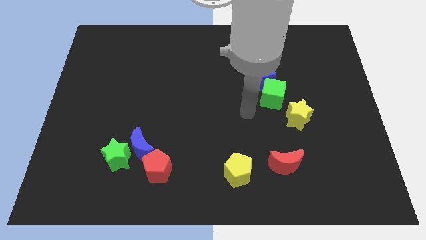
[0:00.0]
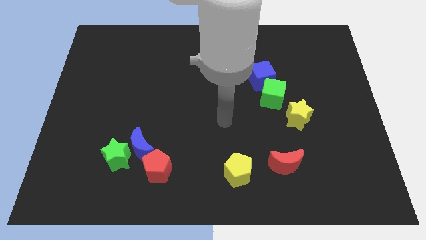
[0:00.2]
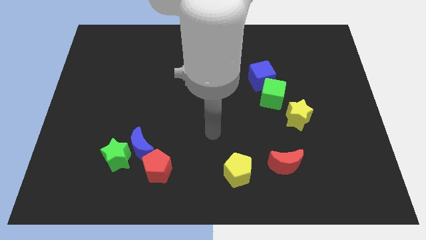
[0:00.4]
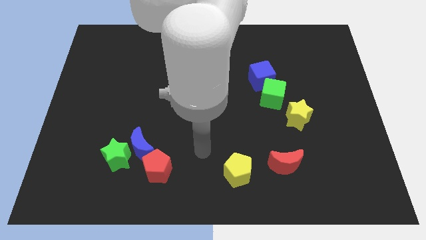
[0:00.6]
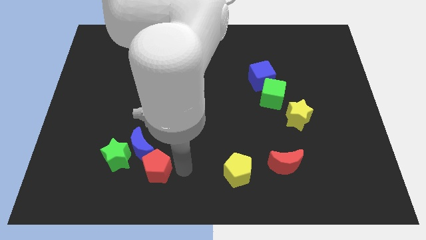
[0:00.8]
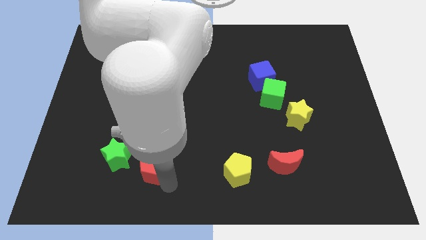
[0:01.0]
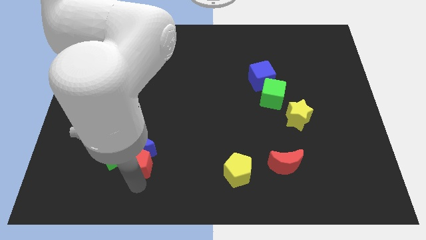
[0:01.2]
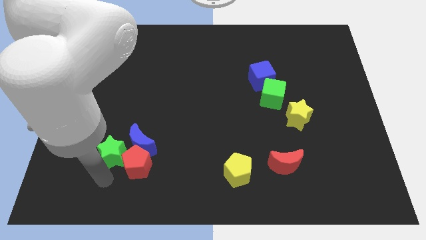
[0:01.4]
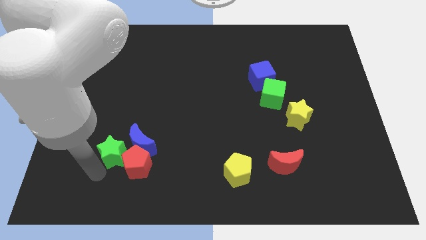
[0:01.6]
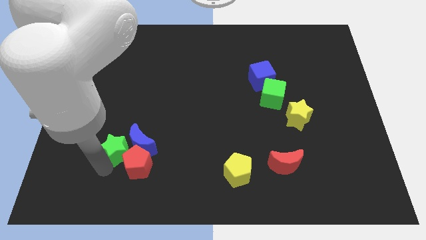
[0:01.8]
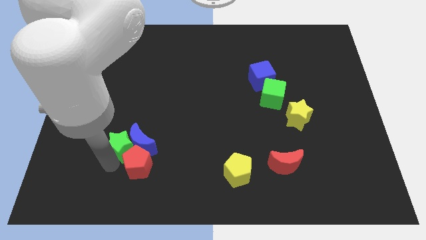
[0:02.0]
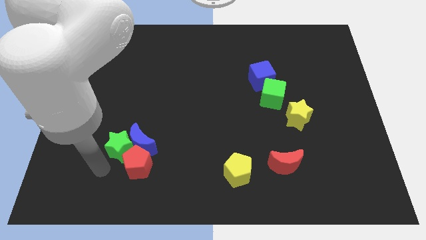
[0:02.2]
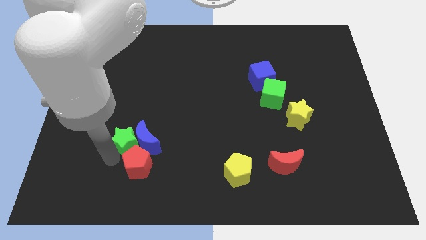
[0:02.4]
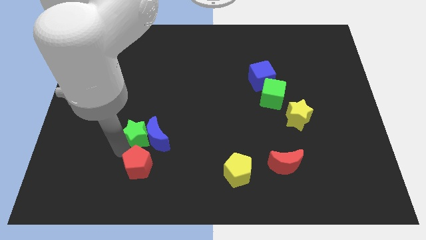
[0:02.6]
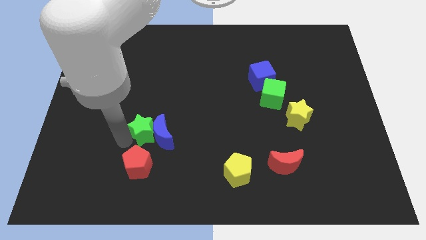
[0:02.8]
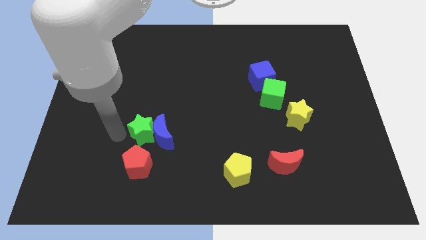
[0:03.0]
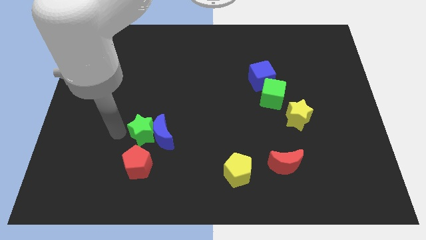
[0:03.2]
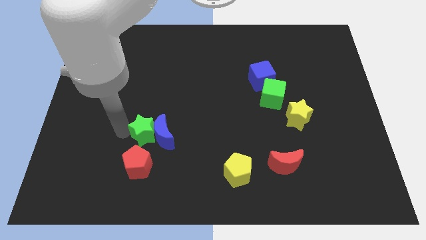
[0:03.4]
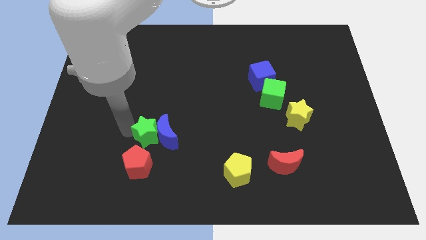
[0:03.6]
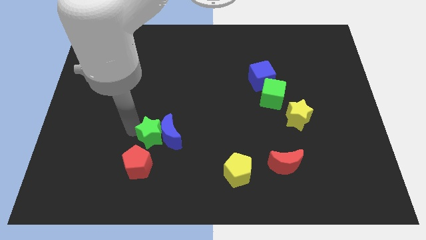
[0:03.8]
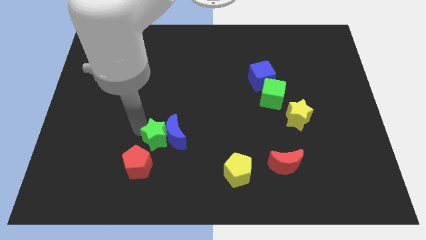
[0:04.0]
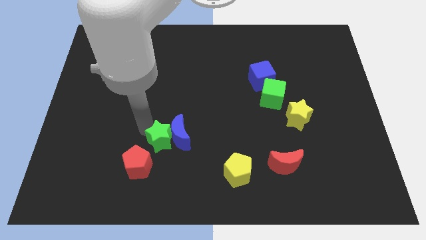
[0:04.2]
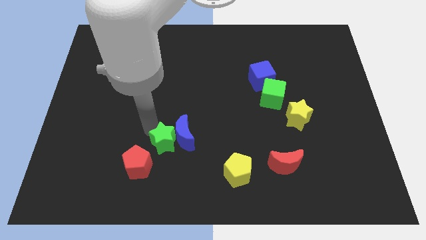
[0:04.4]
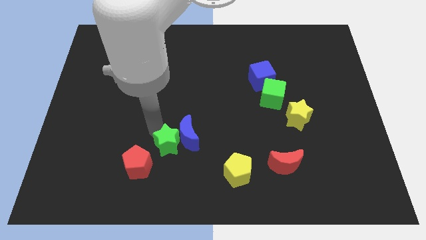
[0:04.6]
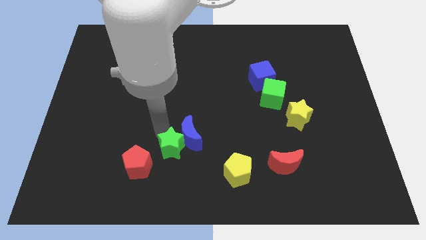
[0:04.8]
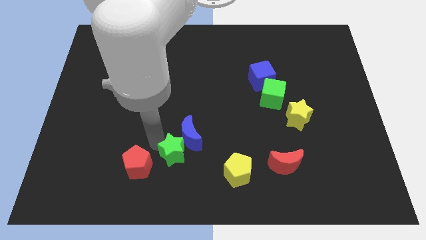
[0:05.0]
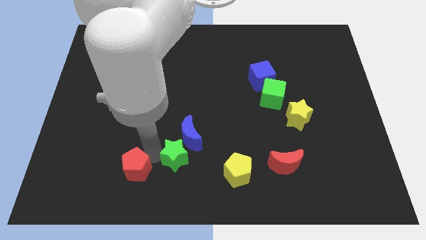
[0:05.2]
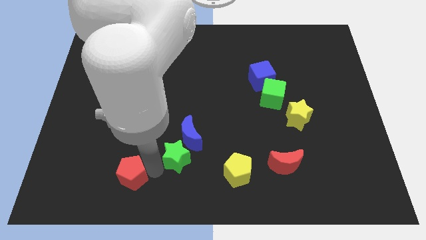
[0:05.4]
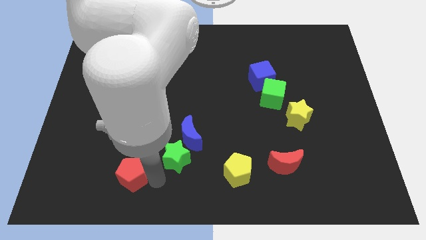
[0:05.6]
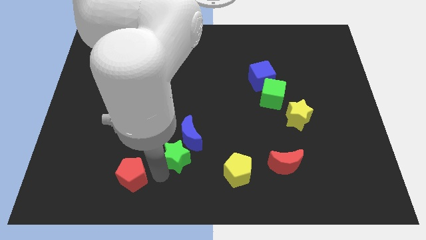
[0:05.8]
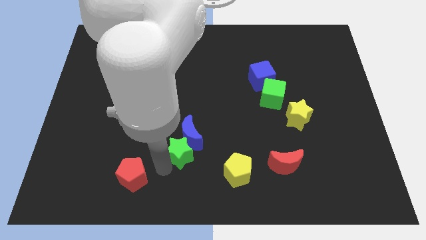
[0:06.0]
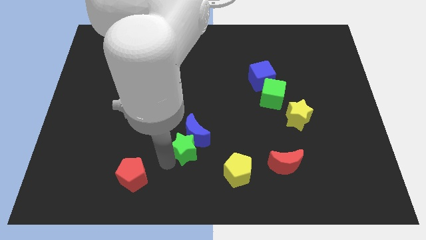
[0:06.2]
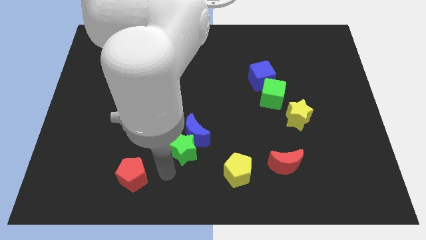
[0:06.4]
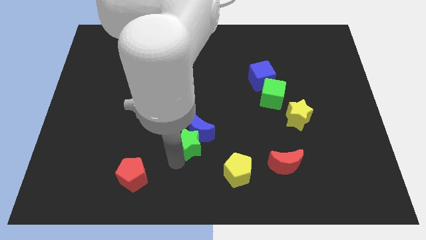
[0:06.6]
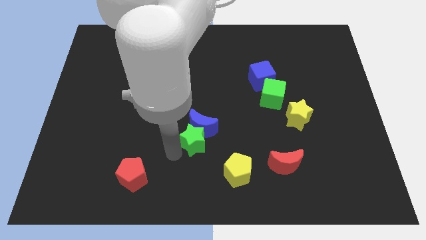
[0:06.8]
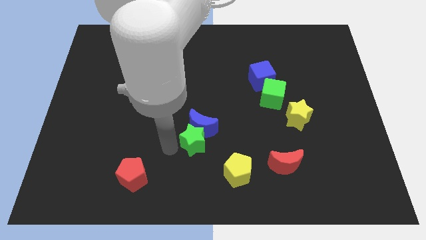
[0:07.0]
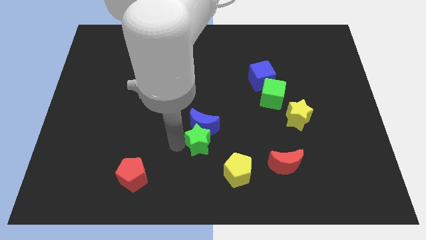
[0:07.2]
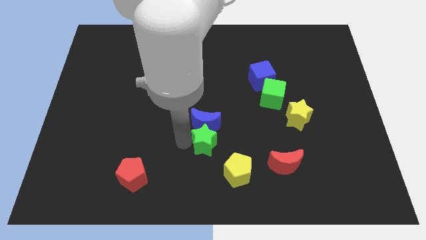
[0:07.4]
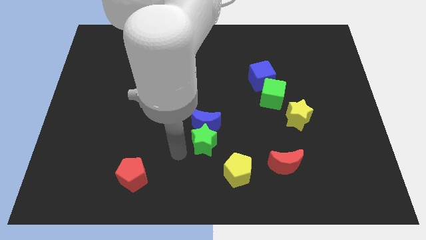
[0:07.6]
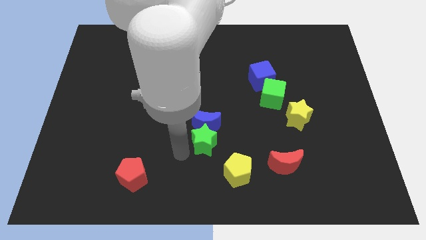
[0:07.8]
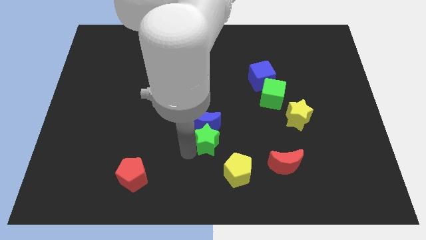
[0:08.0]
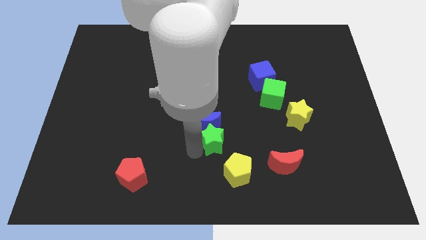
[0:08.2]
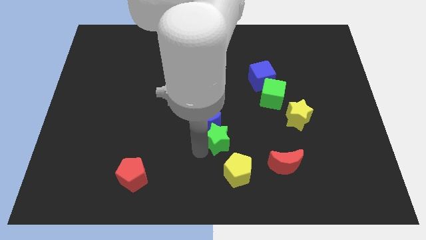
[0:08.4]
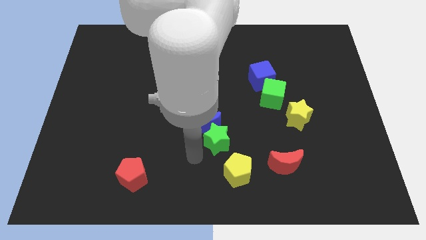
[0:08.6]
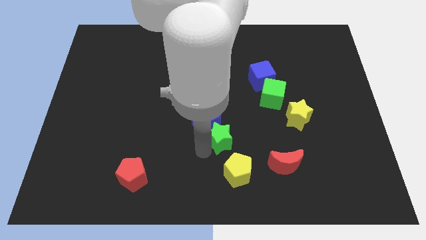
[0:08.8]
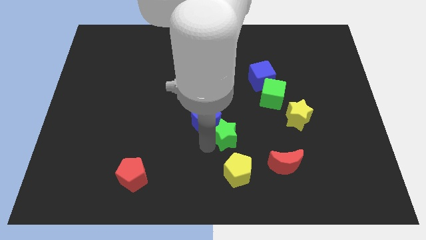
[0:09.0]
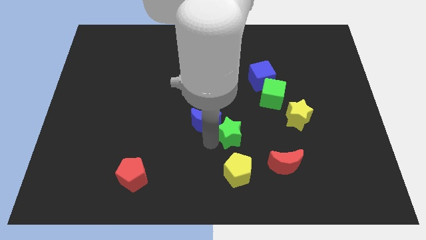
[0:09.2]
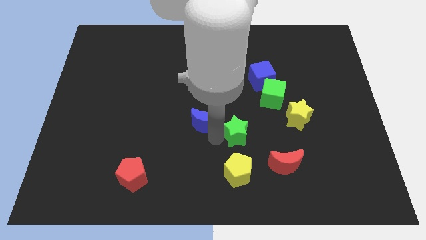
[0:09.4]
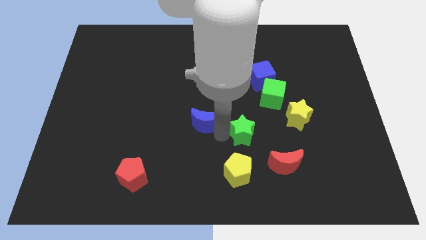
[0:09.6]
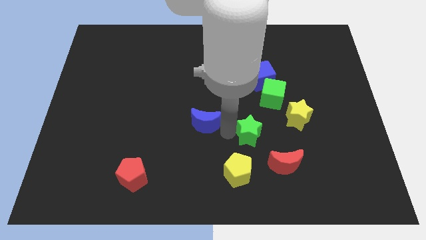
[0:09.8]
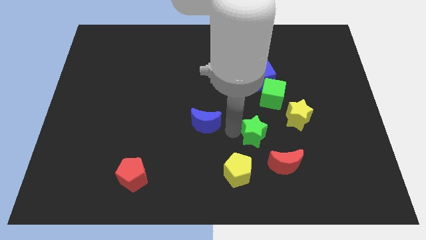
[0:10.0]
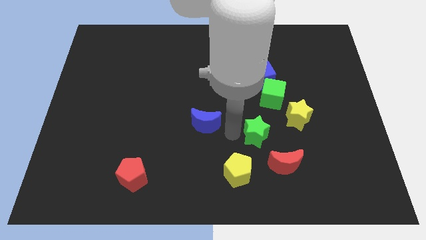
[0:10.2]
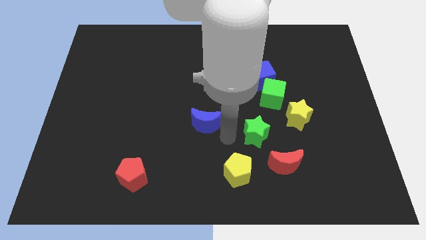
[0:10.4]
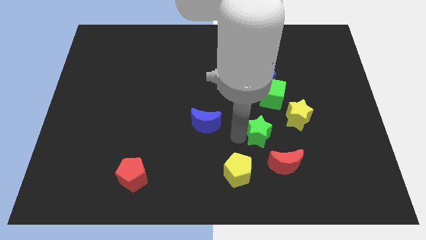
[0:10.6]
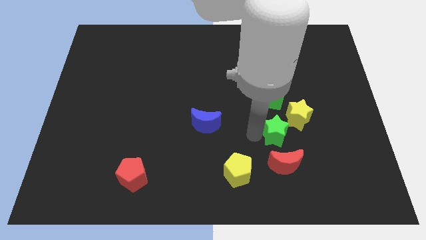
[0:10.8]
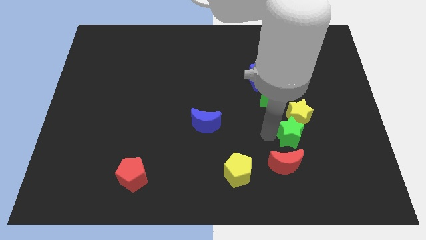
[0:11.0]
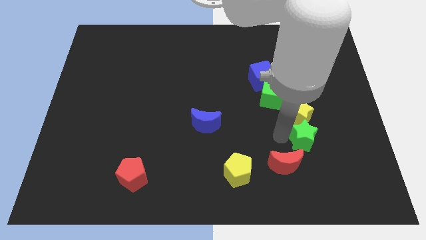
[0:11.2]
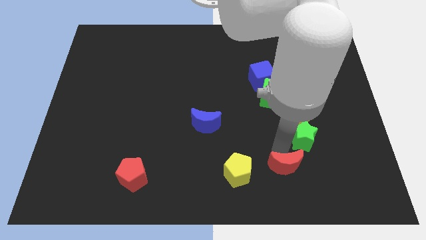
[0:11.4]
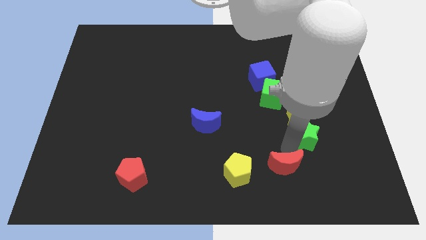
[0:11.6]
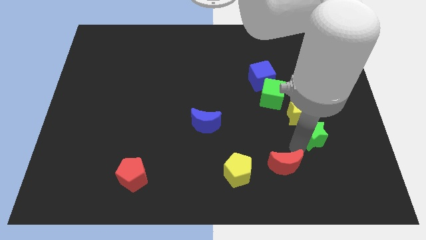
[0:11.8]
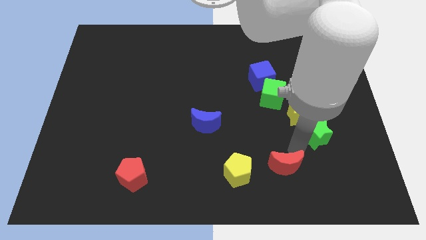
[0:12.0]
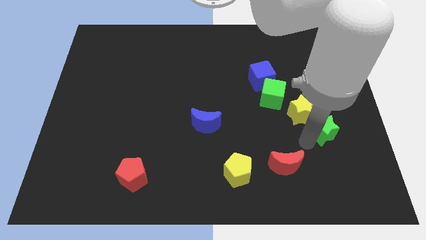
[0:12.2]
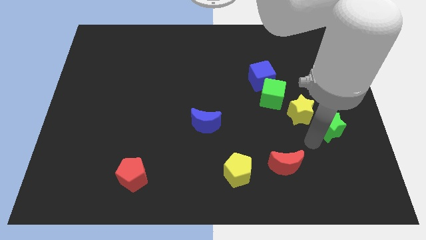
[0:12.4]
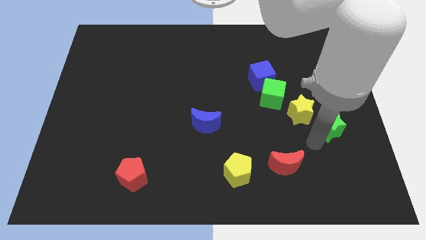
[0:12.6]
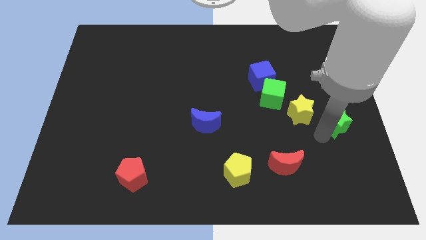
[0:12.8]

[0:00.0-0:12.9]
push the green star to the center right
